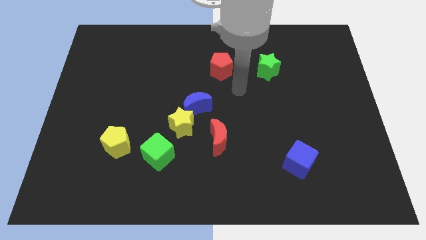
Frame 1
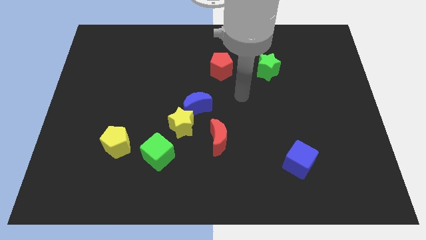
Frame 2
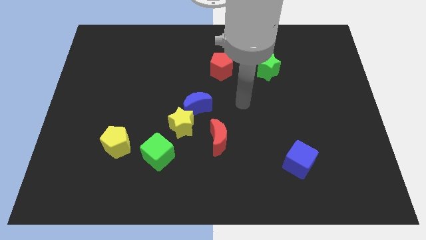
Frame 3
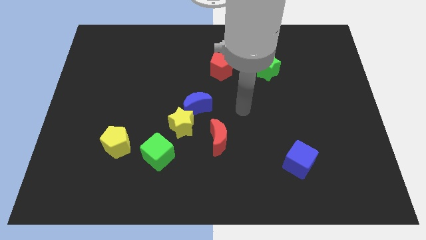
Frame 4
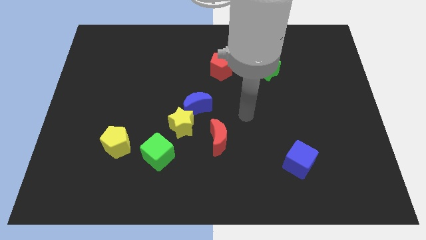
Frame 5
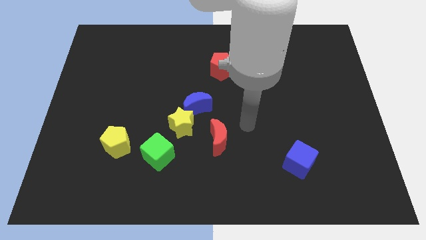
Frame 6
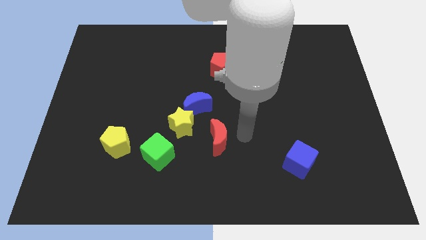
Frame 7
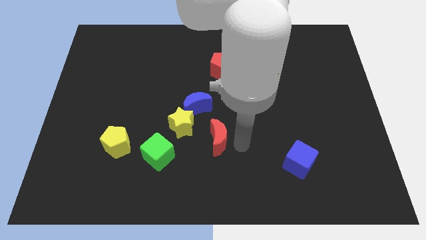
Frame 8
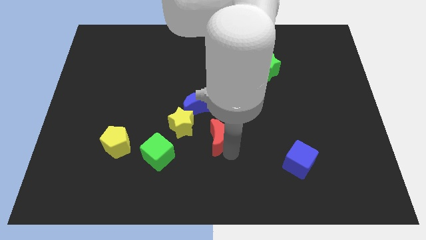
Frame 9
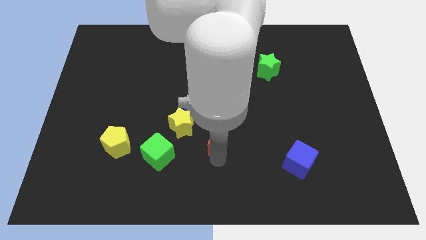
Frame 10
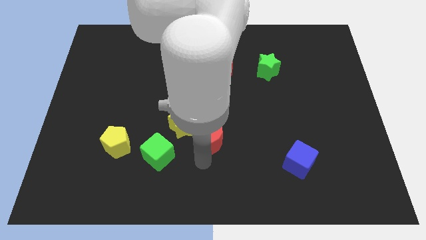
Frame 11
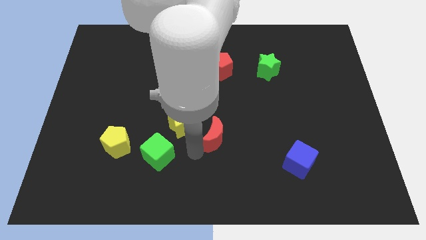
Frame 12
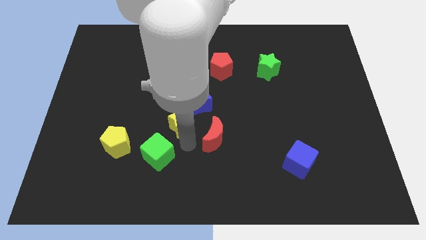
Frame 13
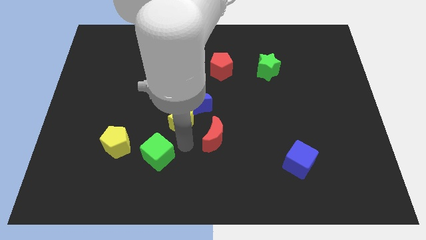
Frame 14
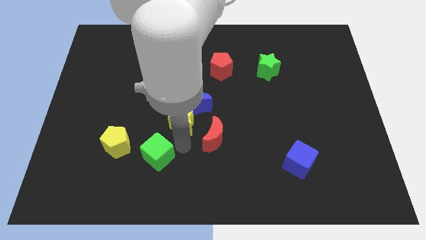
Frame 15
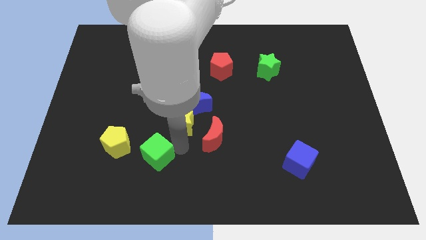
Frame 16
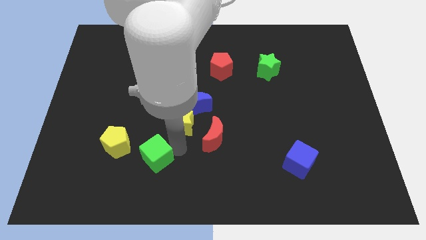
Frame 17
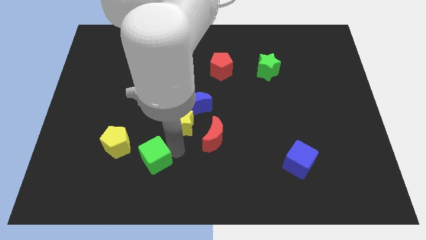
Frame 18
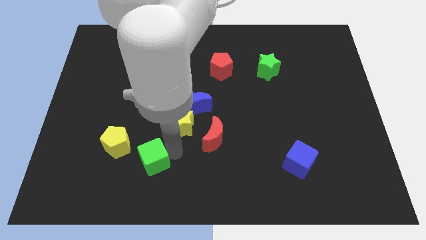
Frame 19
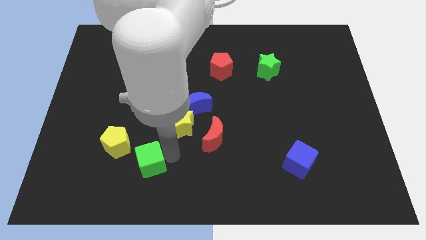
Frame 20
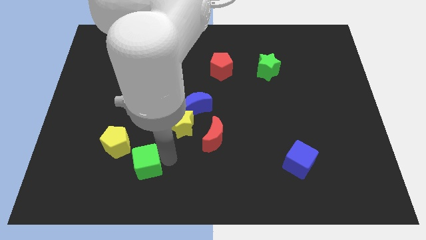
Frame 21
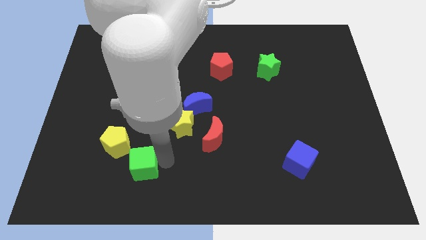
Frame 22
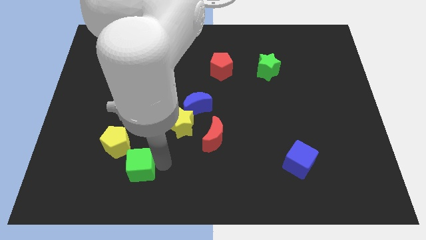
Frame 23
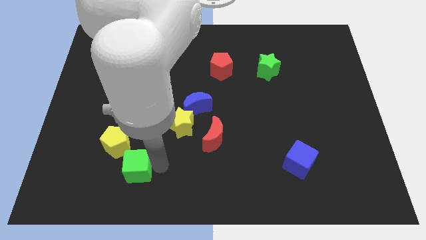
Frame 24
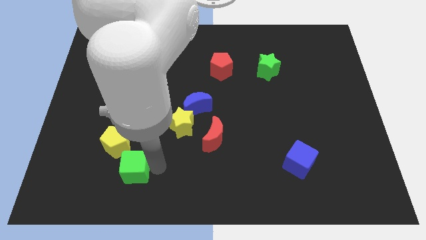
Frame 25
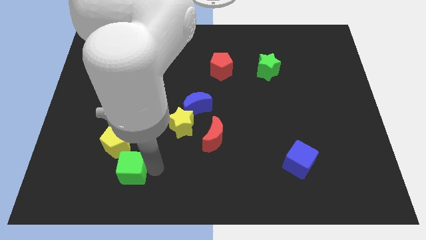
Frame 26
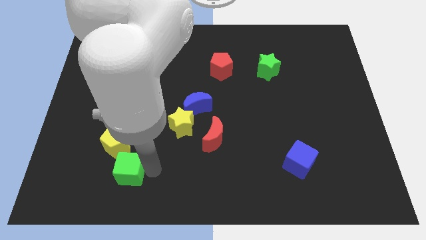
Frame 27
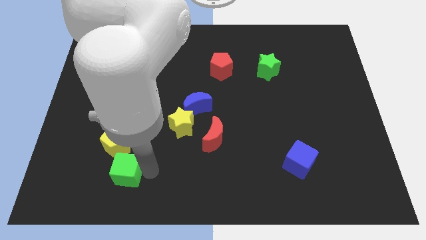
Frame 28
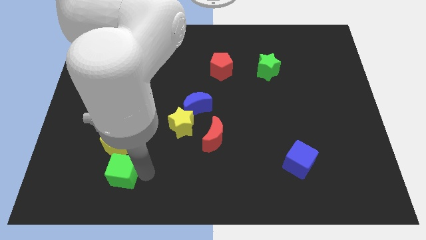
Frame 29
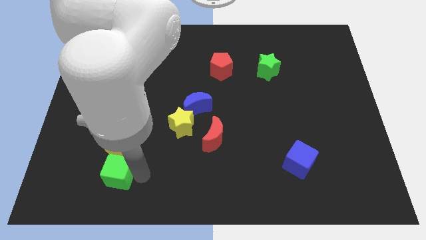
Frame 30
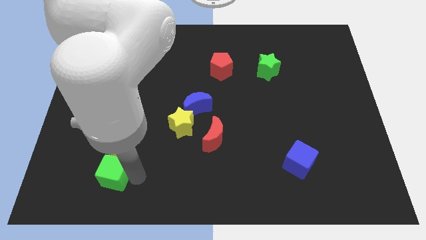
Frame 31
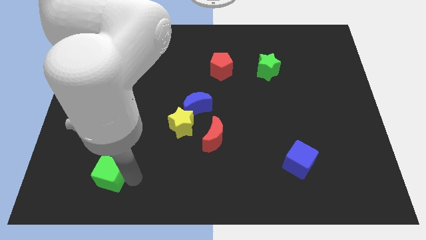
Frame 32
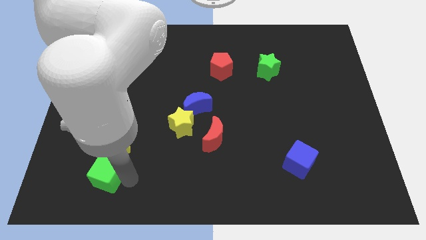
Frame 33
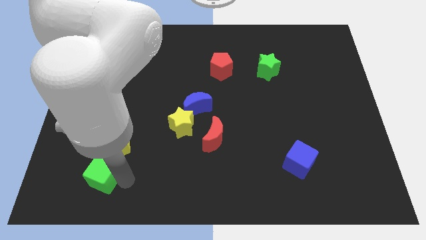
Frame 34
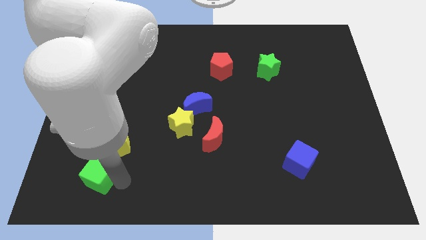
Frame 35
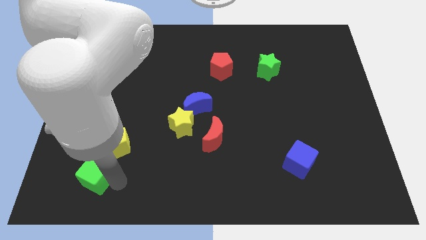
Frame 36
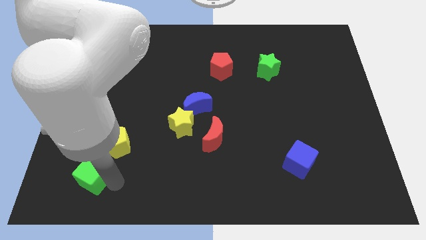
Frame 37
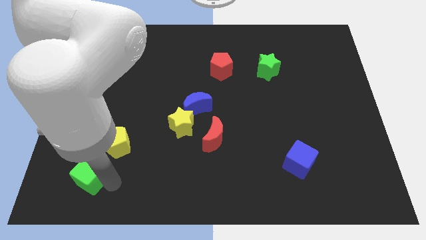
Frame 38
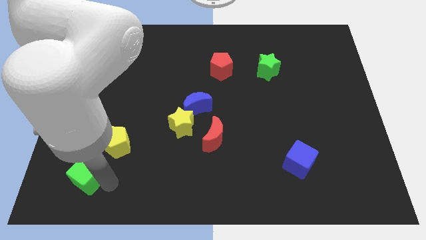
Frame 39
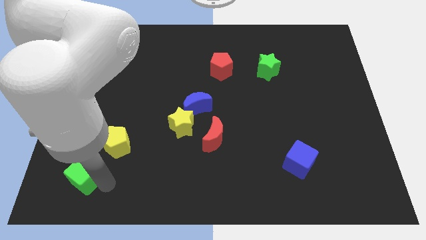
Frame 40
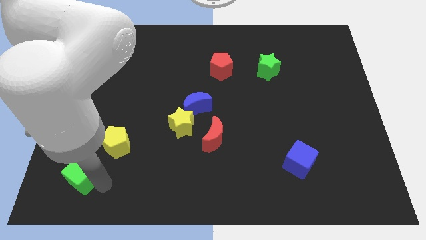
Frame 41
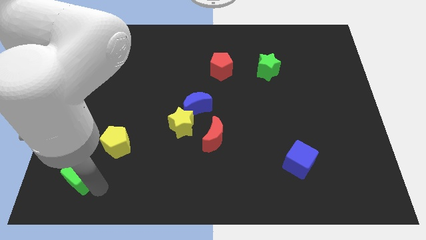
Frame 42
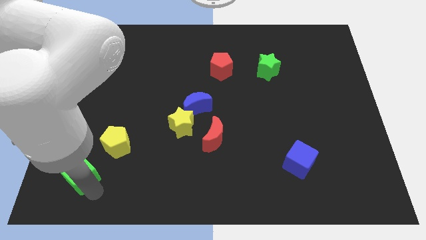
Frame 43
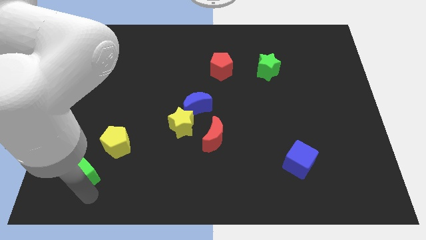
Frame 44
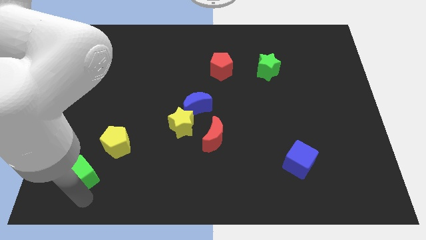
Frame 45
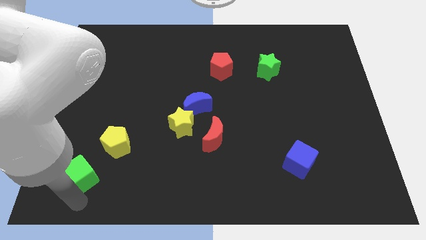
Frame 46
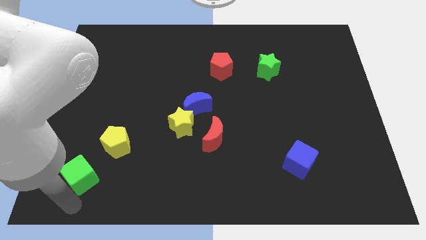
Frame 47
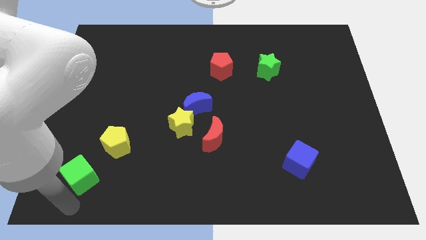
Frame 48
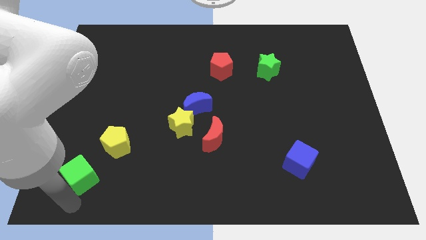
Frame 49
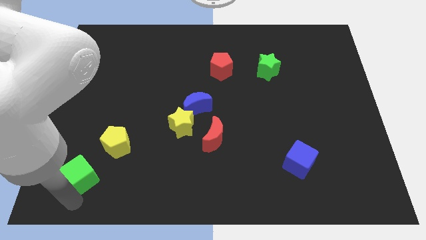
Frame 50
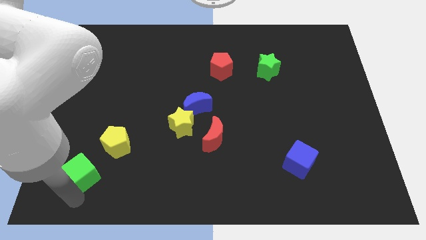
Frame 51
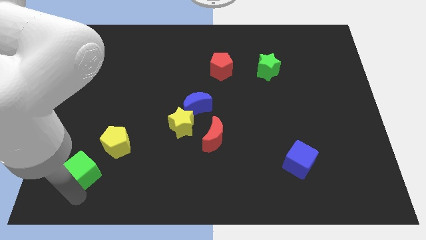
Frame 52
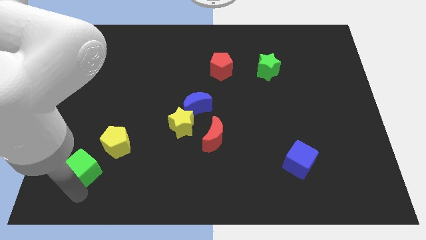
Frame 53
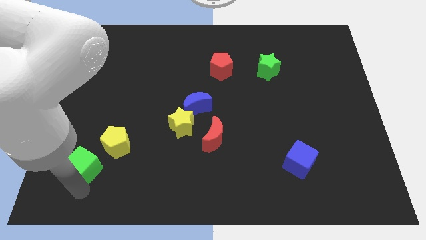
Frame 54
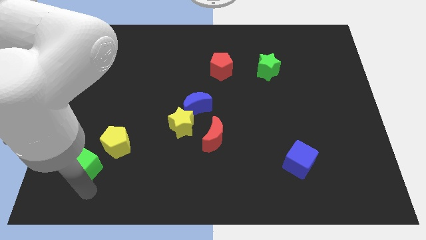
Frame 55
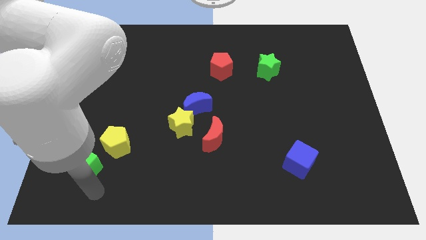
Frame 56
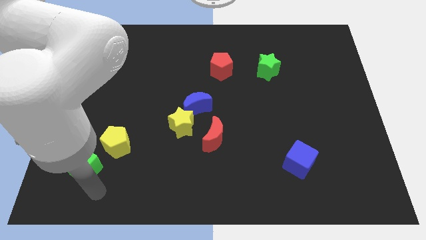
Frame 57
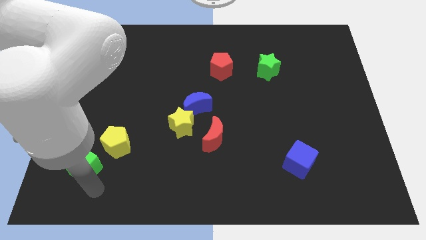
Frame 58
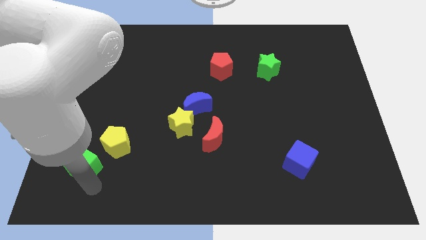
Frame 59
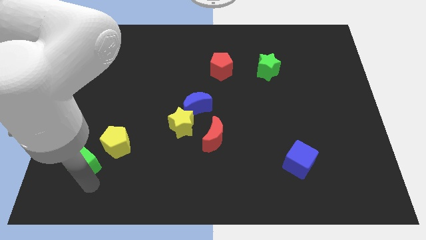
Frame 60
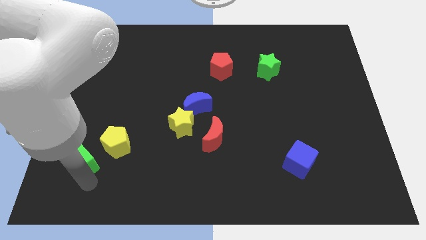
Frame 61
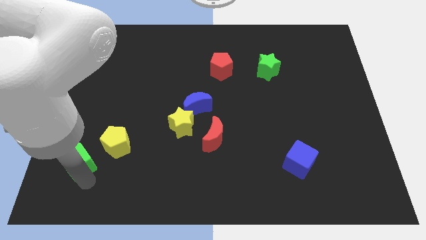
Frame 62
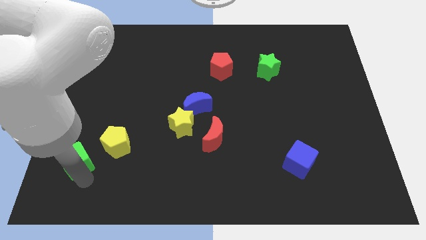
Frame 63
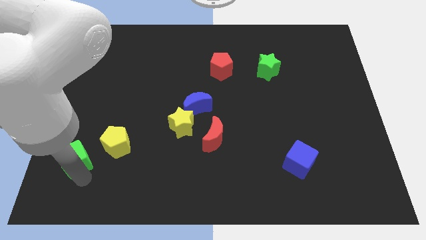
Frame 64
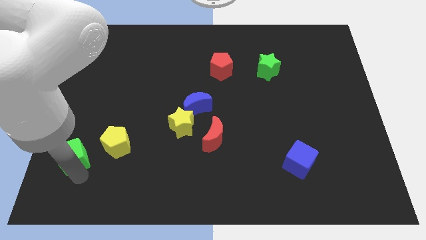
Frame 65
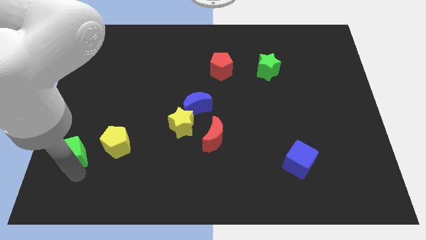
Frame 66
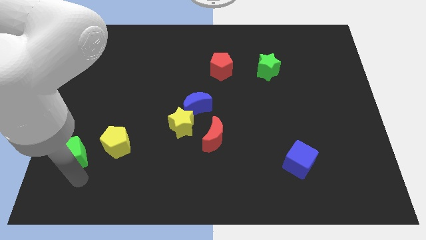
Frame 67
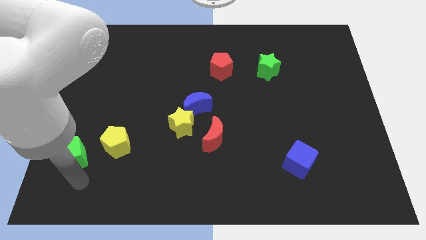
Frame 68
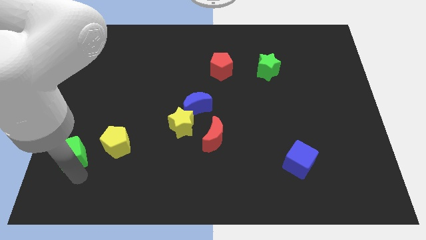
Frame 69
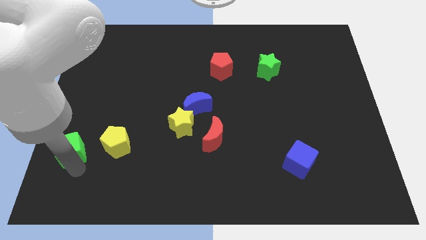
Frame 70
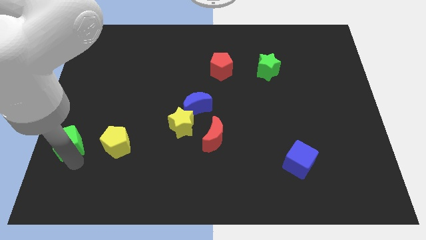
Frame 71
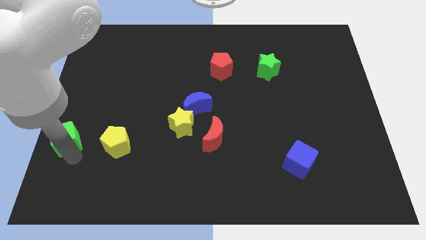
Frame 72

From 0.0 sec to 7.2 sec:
slide the green cube to the center left
